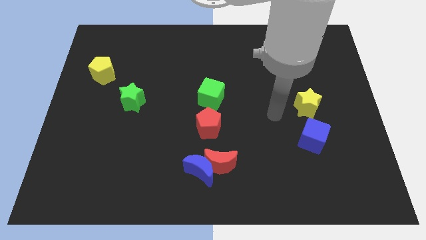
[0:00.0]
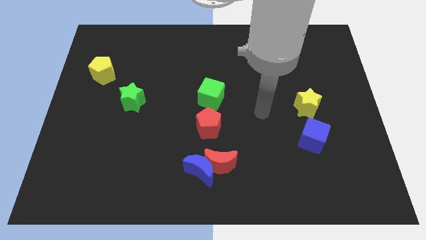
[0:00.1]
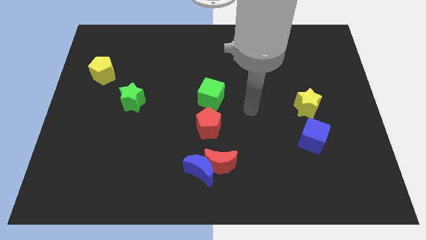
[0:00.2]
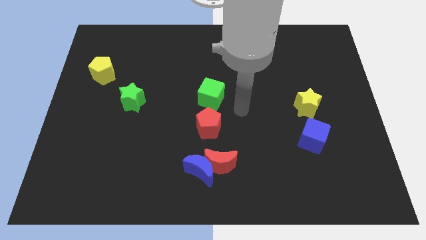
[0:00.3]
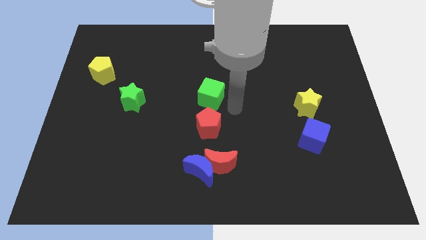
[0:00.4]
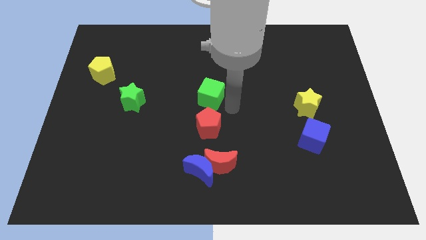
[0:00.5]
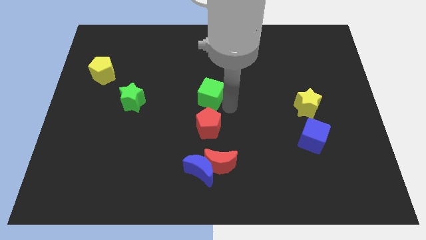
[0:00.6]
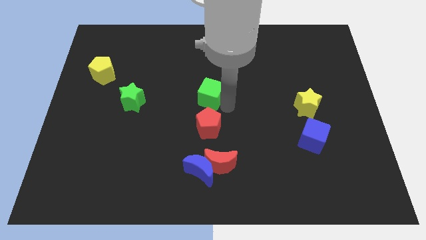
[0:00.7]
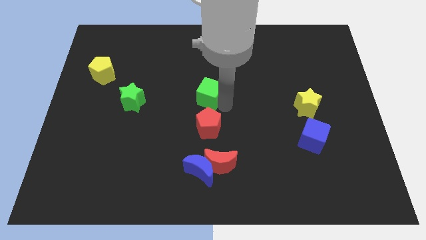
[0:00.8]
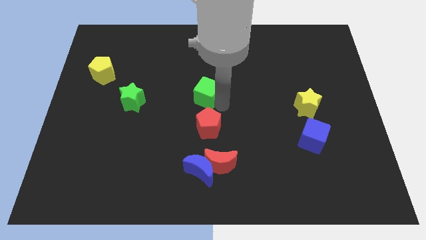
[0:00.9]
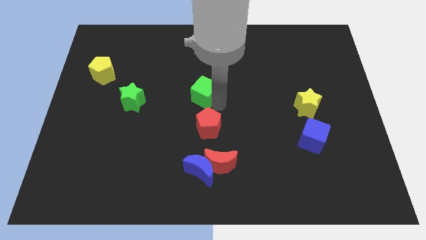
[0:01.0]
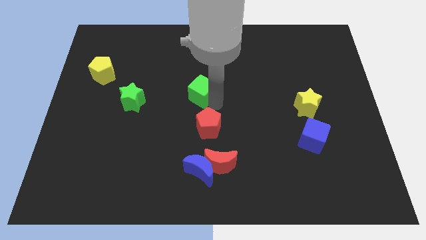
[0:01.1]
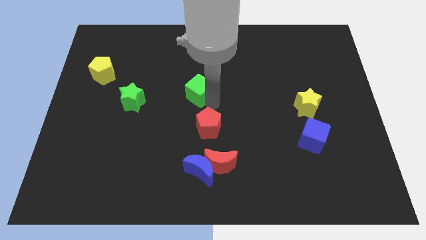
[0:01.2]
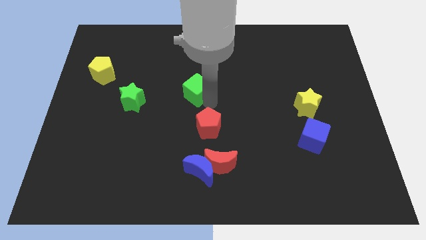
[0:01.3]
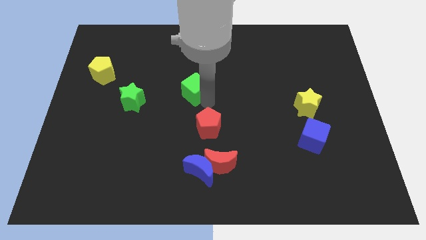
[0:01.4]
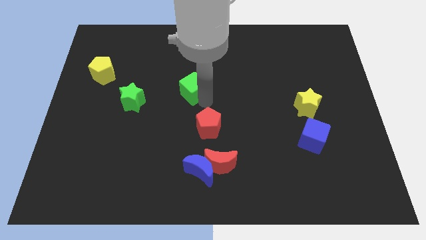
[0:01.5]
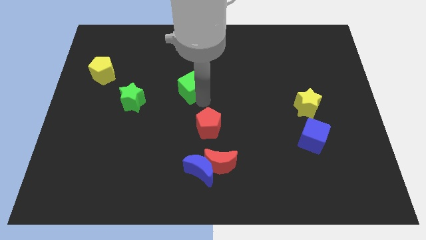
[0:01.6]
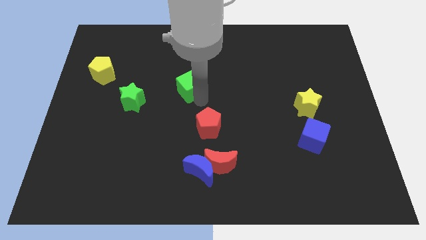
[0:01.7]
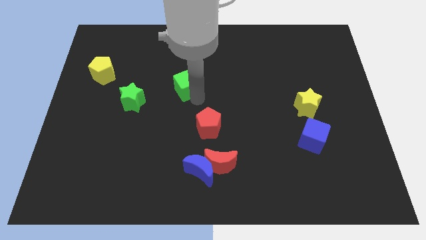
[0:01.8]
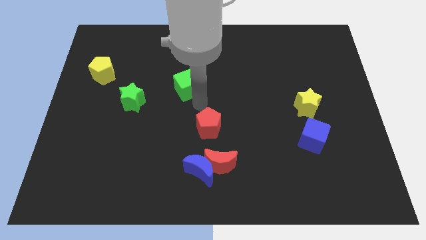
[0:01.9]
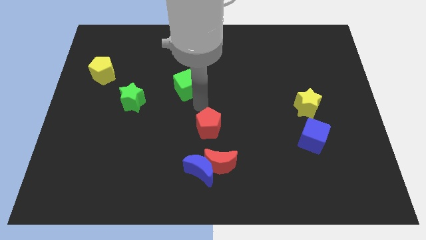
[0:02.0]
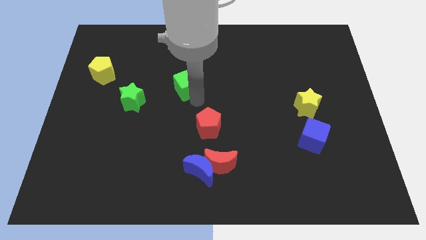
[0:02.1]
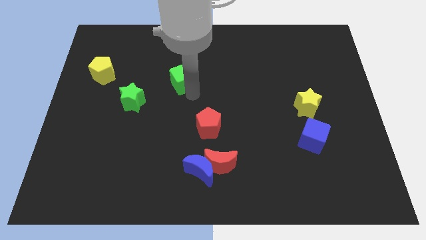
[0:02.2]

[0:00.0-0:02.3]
slightly move the green cube up and left

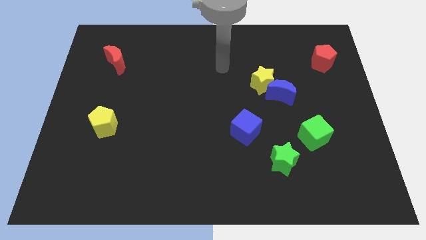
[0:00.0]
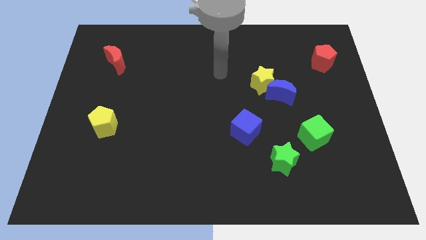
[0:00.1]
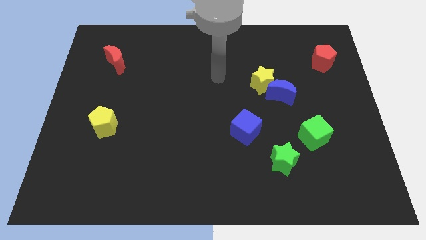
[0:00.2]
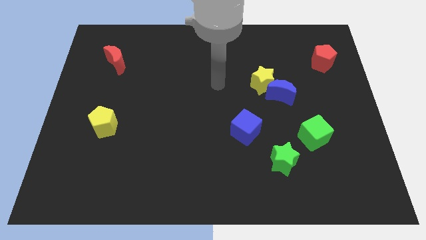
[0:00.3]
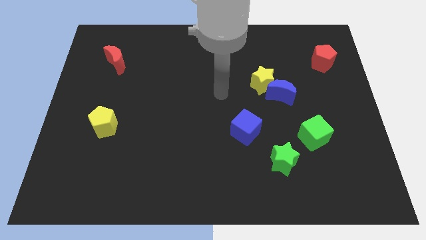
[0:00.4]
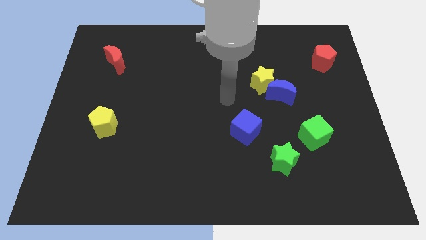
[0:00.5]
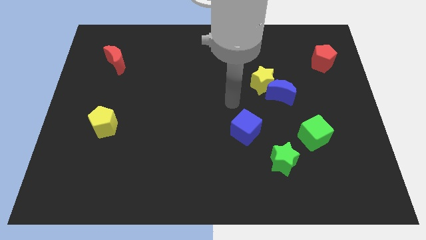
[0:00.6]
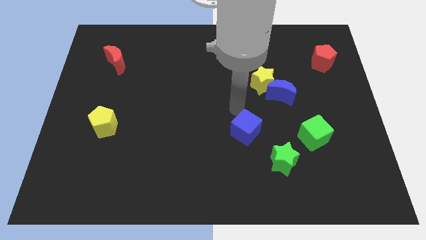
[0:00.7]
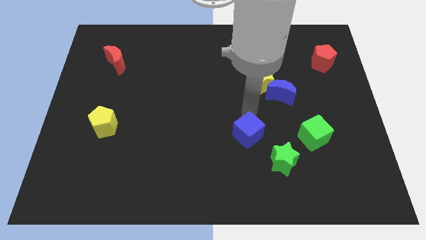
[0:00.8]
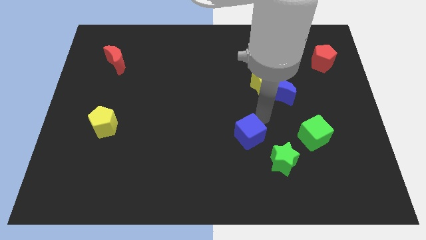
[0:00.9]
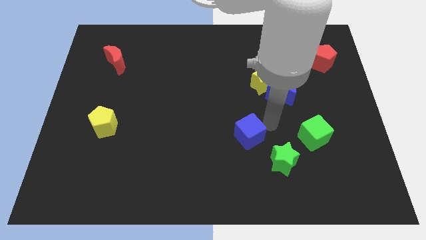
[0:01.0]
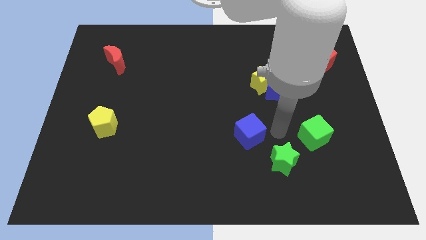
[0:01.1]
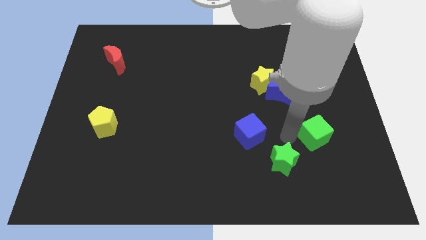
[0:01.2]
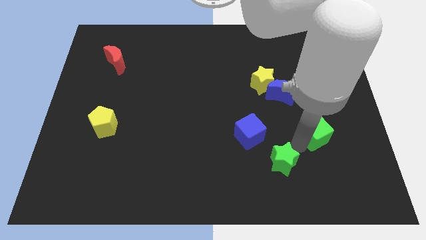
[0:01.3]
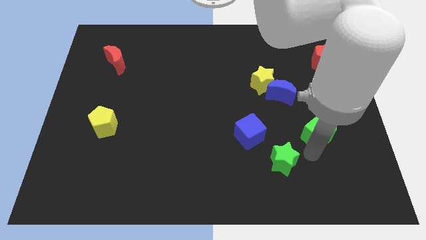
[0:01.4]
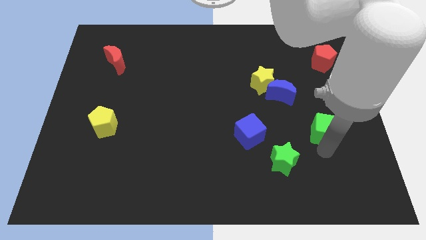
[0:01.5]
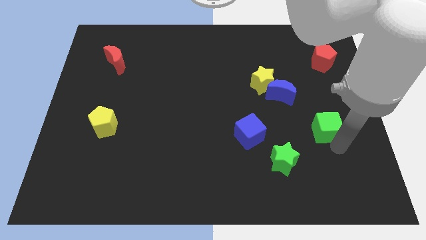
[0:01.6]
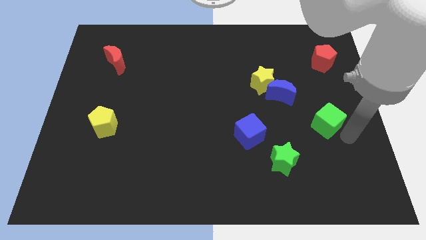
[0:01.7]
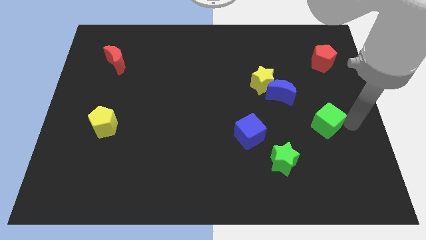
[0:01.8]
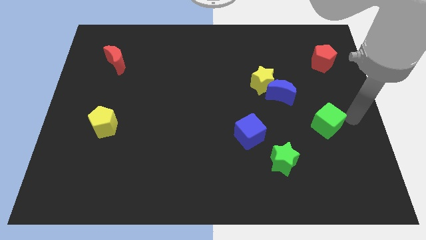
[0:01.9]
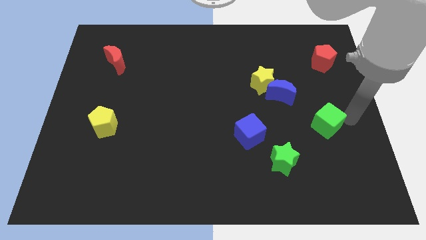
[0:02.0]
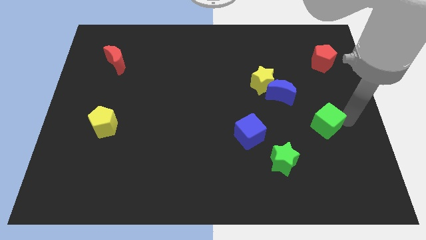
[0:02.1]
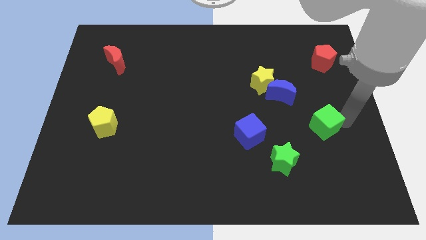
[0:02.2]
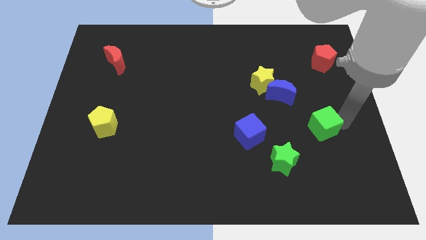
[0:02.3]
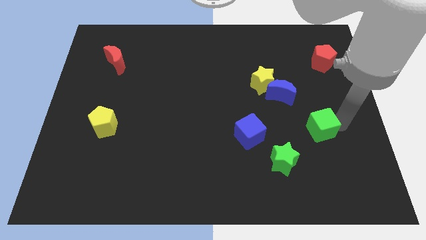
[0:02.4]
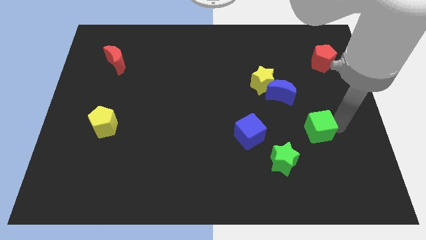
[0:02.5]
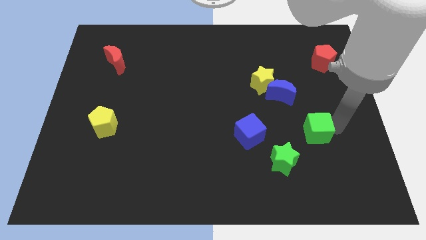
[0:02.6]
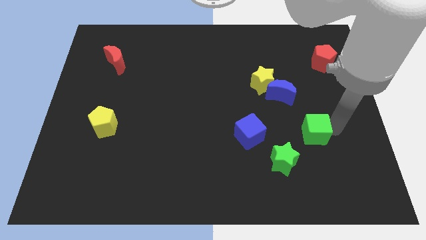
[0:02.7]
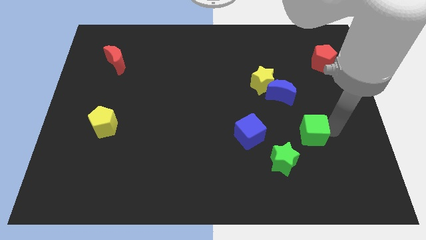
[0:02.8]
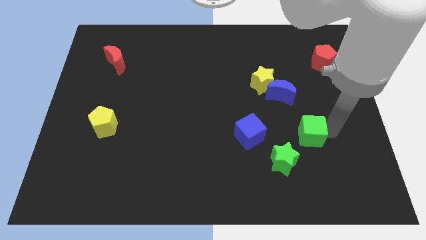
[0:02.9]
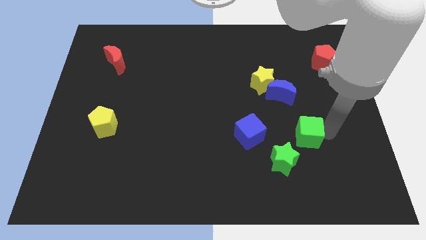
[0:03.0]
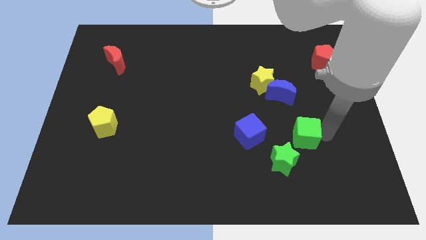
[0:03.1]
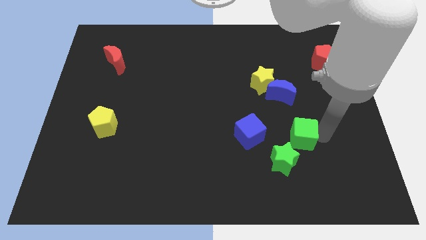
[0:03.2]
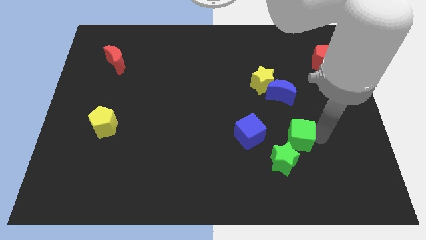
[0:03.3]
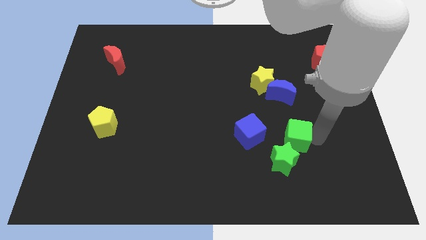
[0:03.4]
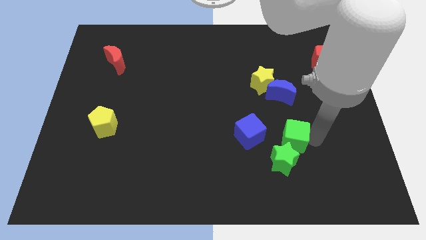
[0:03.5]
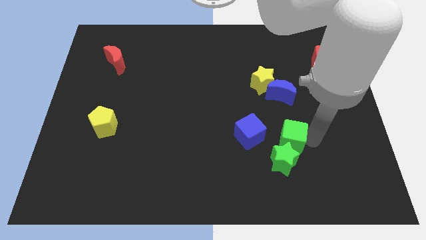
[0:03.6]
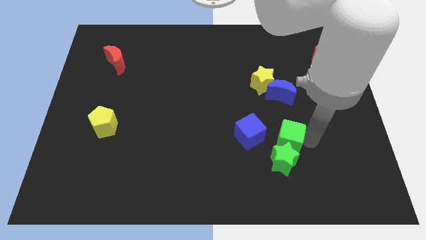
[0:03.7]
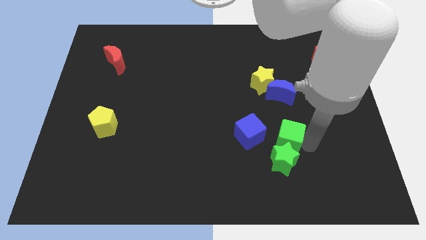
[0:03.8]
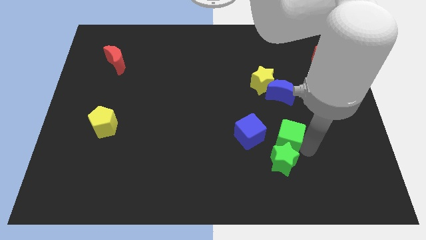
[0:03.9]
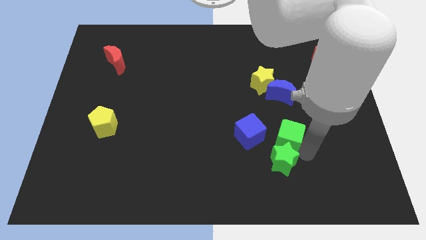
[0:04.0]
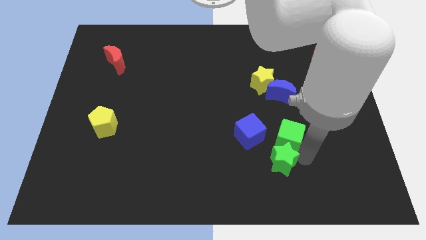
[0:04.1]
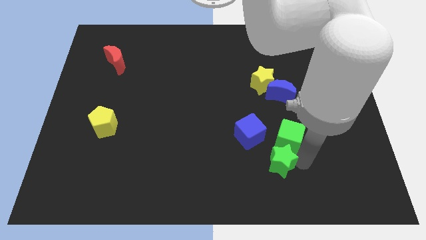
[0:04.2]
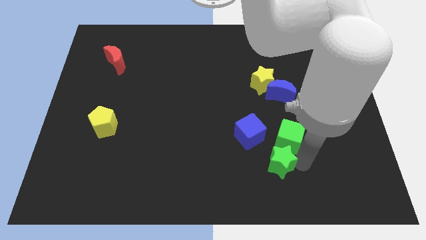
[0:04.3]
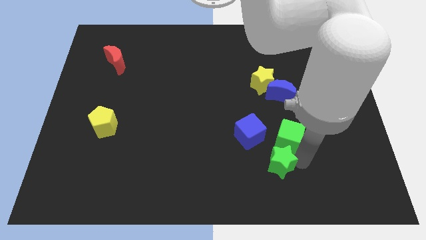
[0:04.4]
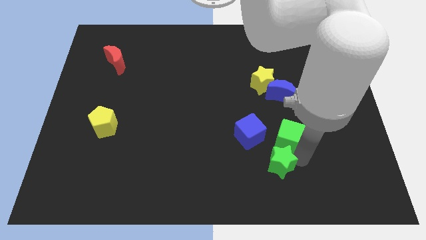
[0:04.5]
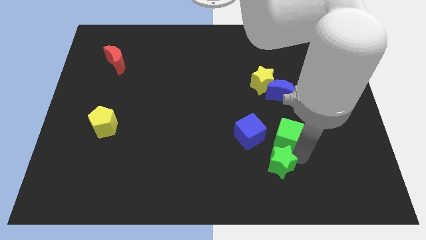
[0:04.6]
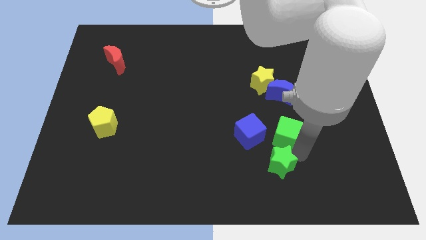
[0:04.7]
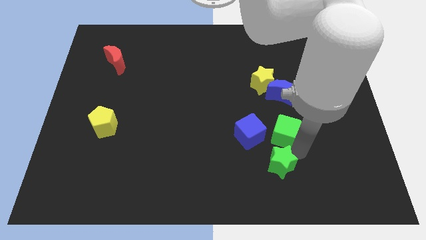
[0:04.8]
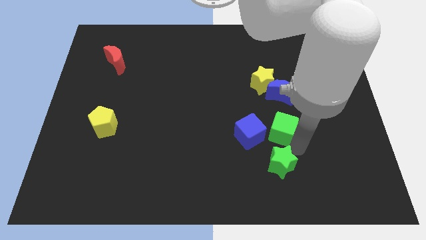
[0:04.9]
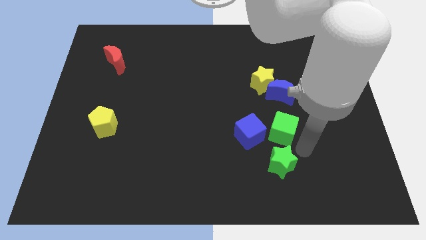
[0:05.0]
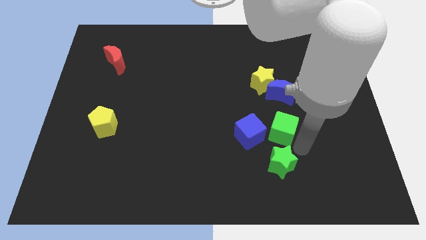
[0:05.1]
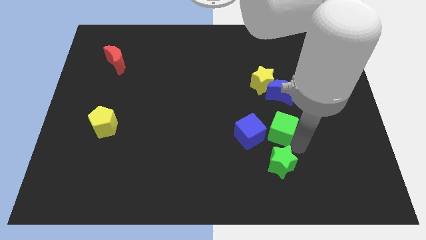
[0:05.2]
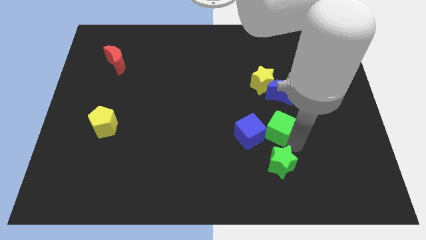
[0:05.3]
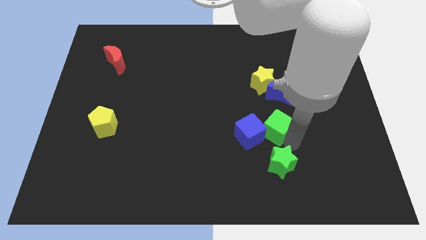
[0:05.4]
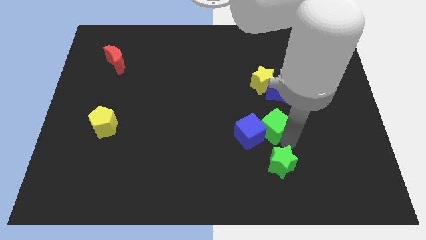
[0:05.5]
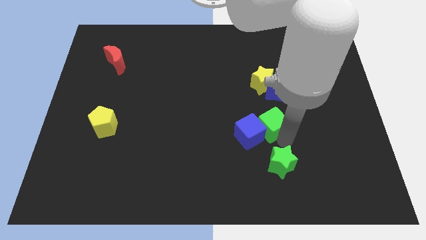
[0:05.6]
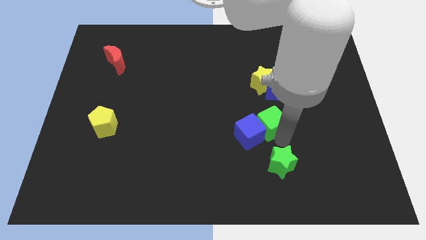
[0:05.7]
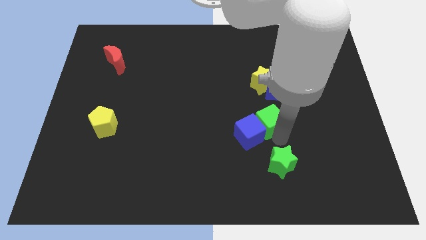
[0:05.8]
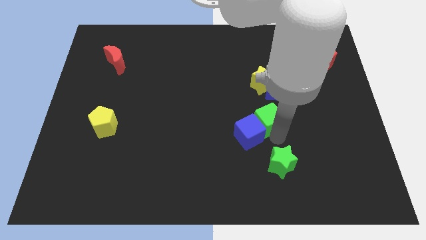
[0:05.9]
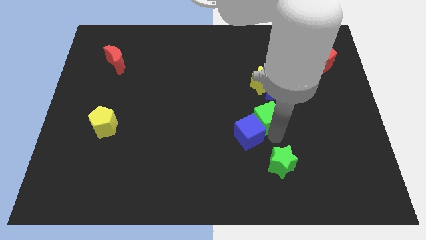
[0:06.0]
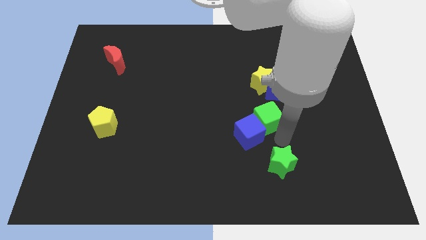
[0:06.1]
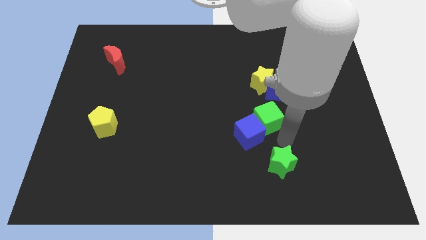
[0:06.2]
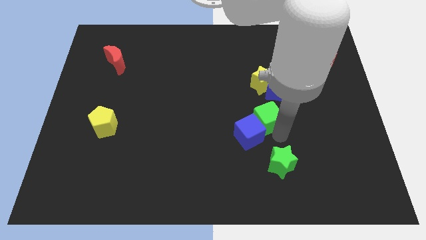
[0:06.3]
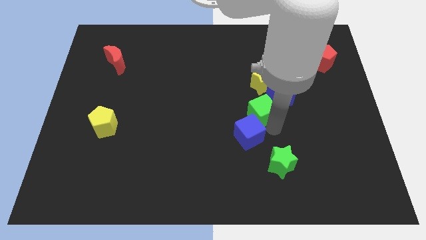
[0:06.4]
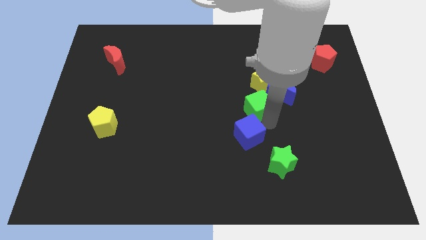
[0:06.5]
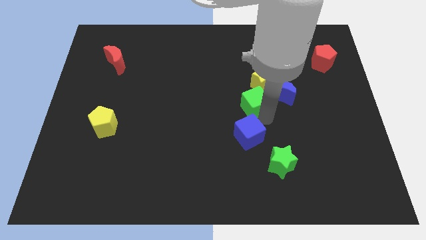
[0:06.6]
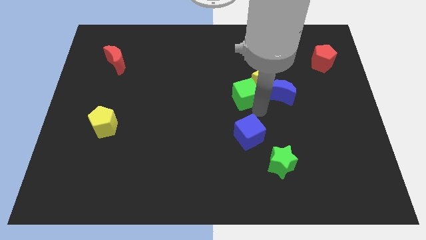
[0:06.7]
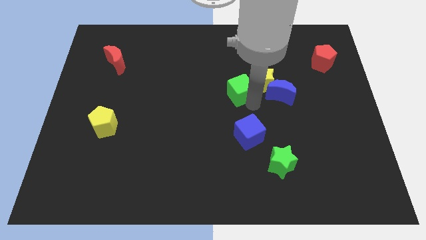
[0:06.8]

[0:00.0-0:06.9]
push the green cube upwards and to the left
